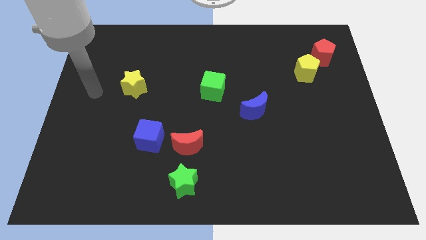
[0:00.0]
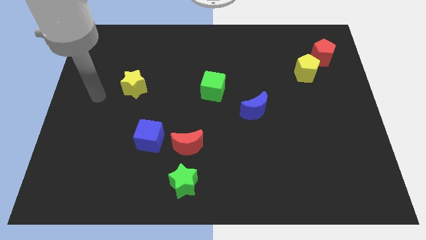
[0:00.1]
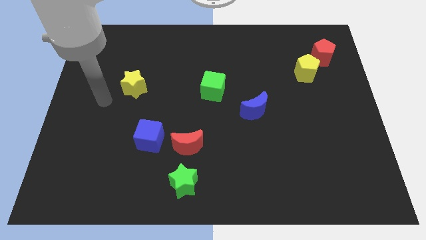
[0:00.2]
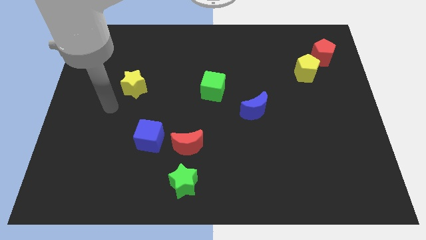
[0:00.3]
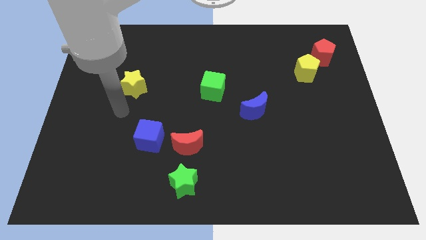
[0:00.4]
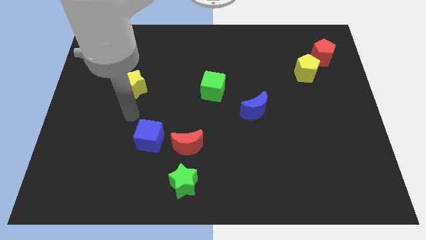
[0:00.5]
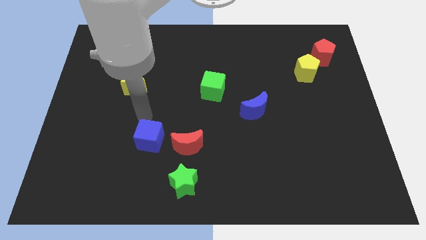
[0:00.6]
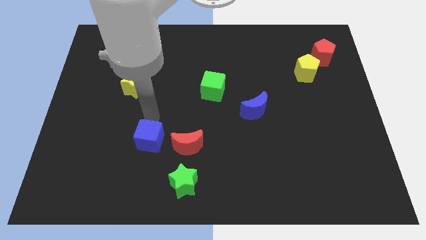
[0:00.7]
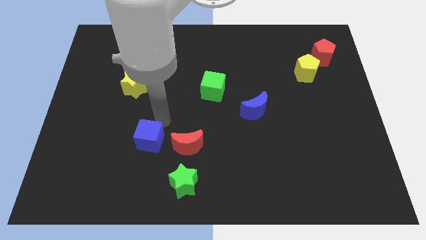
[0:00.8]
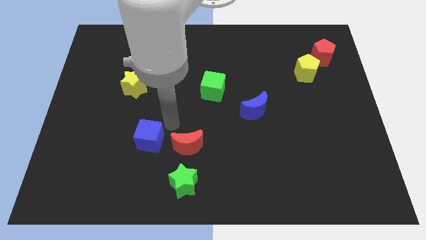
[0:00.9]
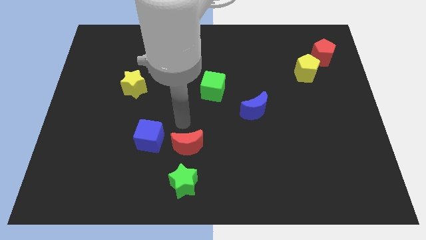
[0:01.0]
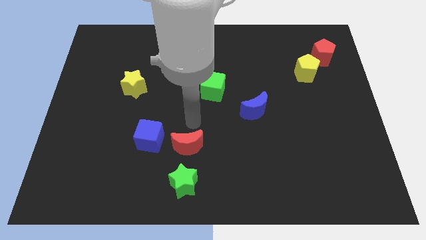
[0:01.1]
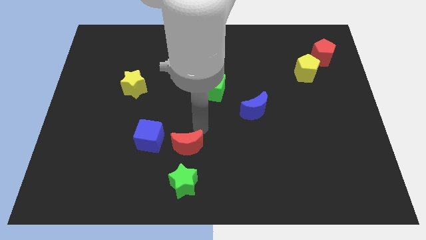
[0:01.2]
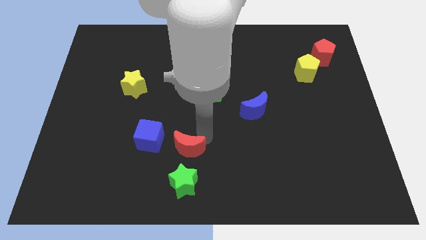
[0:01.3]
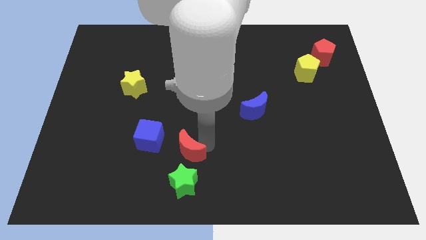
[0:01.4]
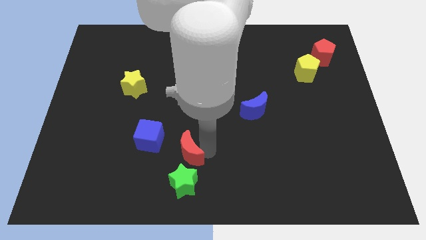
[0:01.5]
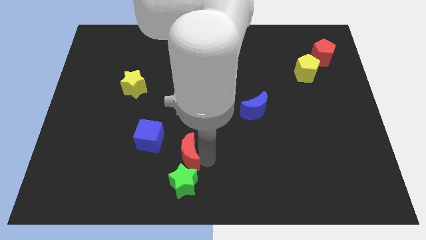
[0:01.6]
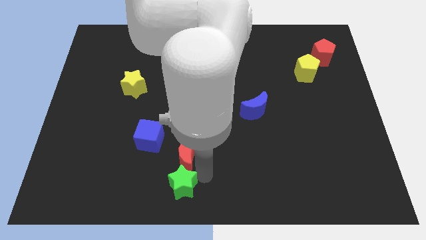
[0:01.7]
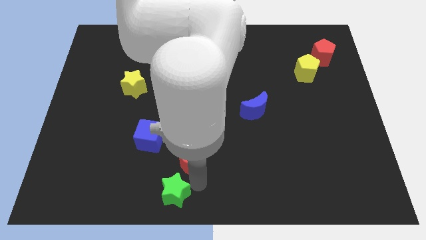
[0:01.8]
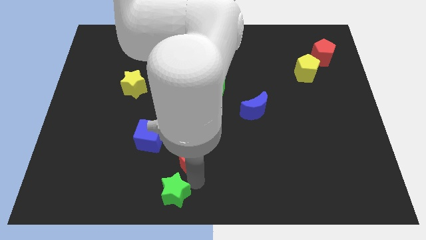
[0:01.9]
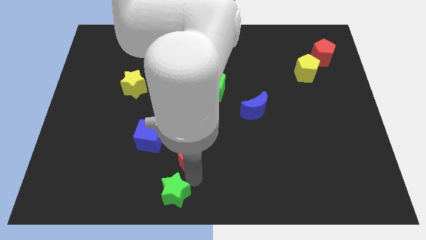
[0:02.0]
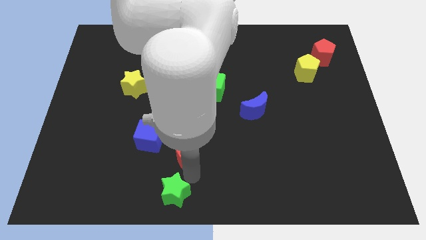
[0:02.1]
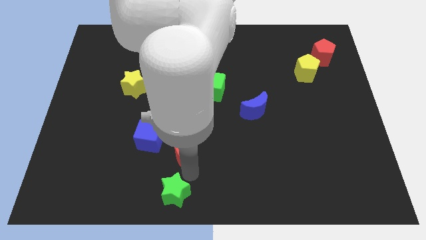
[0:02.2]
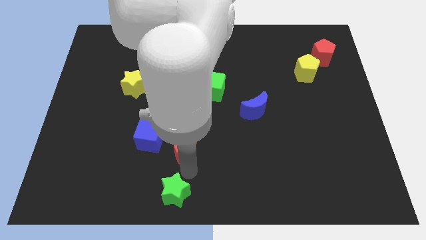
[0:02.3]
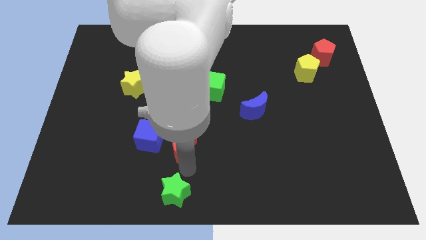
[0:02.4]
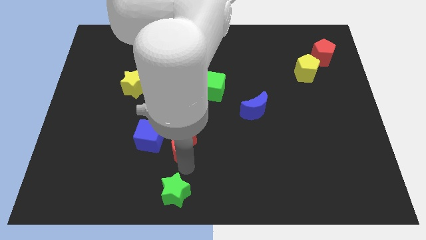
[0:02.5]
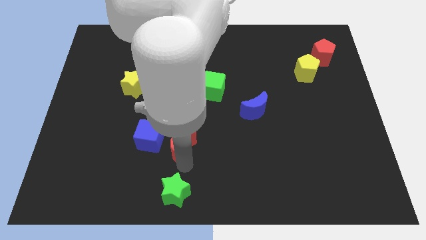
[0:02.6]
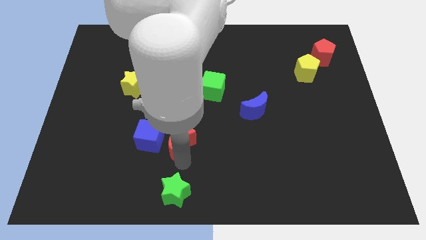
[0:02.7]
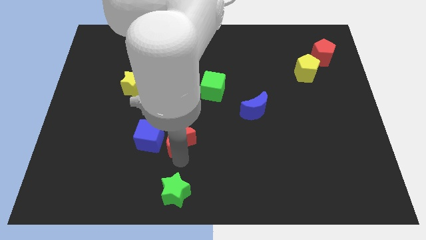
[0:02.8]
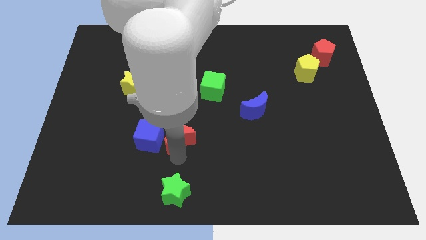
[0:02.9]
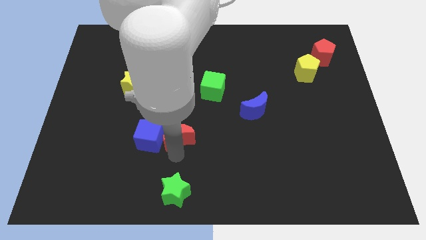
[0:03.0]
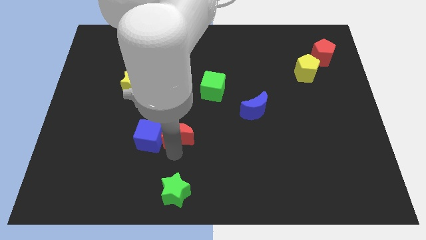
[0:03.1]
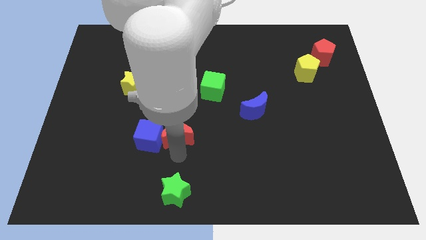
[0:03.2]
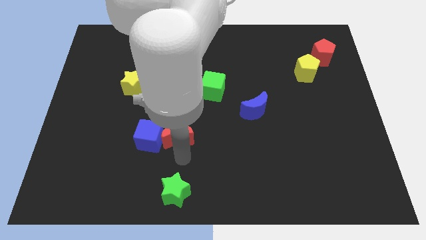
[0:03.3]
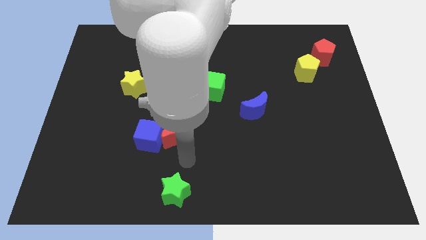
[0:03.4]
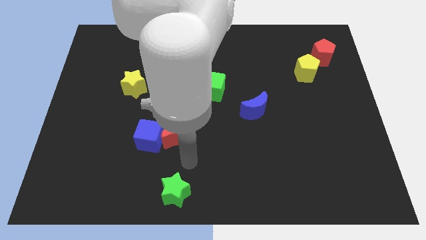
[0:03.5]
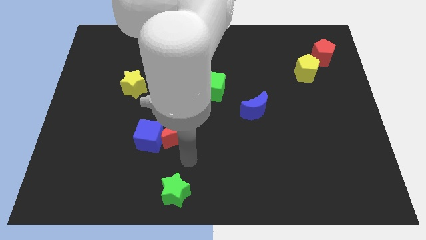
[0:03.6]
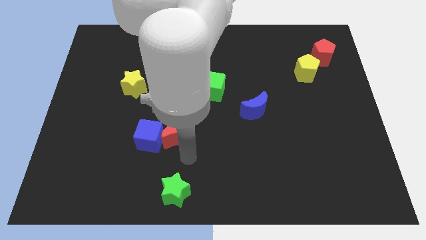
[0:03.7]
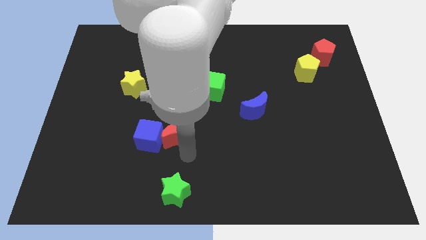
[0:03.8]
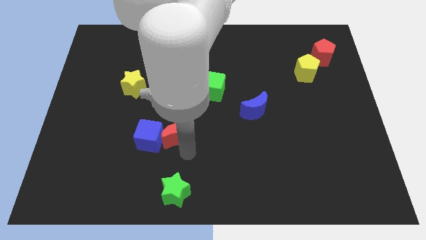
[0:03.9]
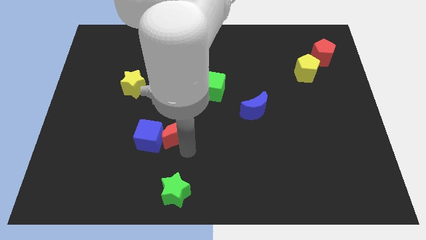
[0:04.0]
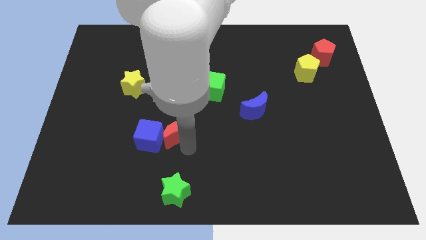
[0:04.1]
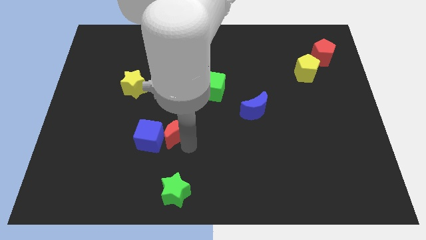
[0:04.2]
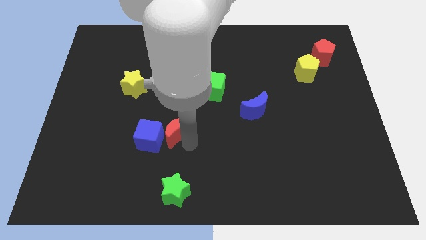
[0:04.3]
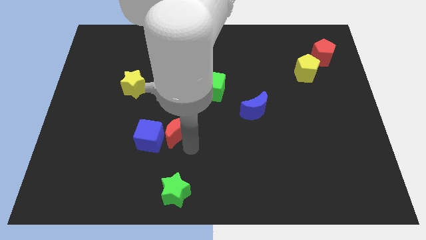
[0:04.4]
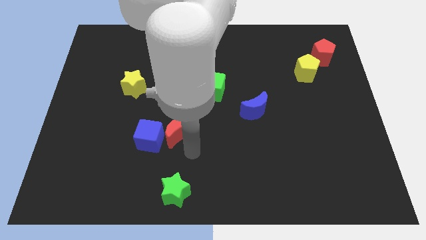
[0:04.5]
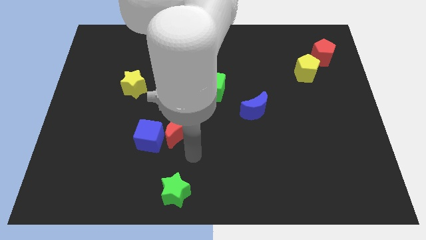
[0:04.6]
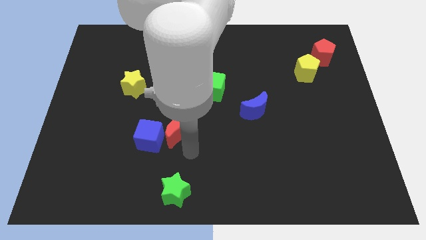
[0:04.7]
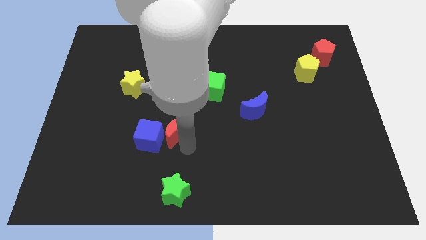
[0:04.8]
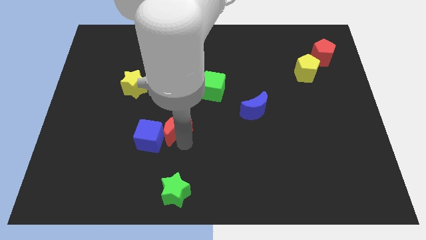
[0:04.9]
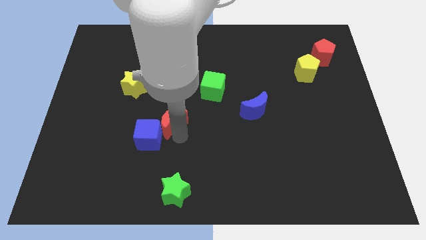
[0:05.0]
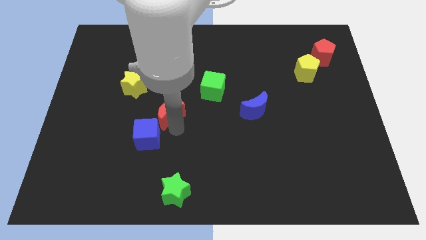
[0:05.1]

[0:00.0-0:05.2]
put the red moon above the blue cube

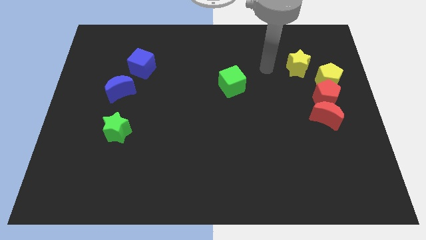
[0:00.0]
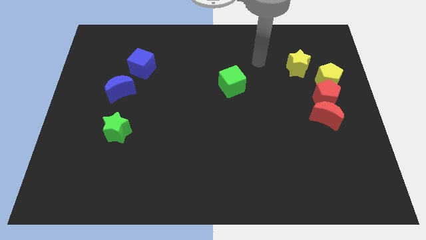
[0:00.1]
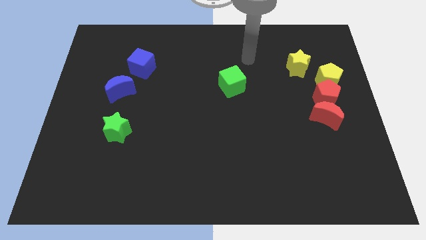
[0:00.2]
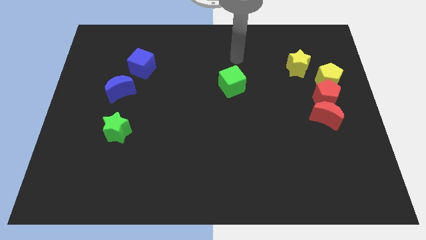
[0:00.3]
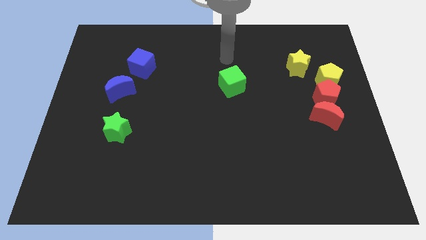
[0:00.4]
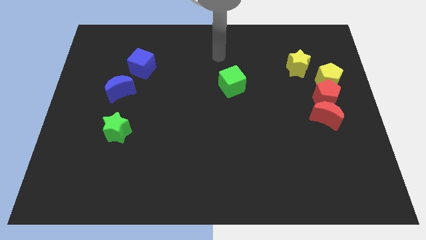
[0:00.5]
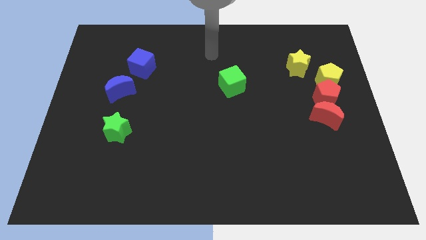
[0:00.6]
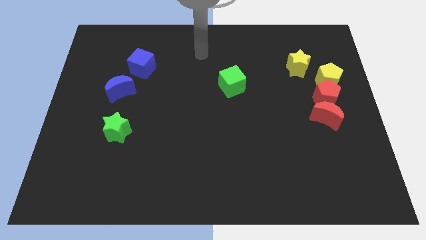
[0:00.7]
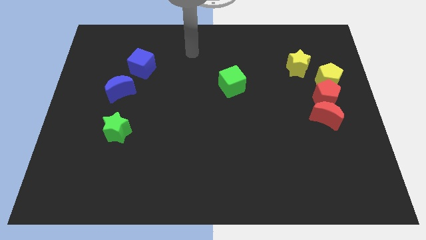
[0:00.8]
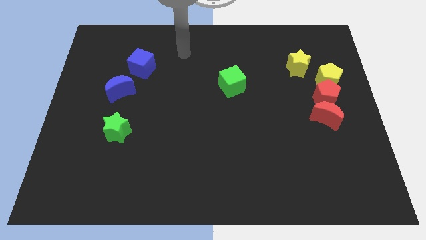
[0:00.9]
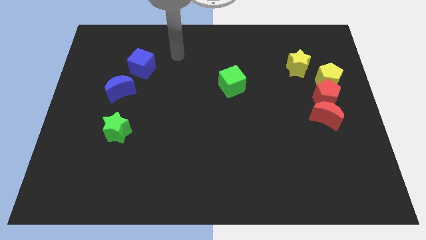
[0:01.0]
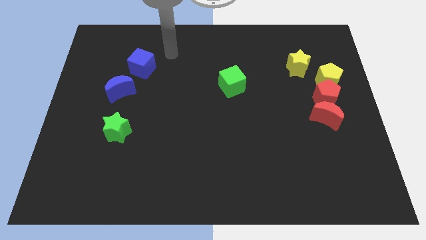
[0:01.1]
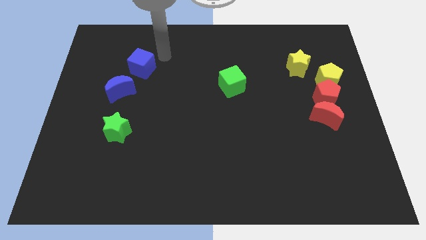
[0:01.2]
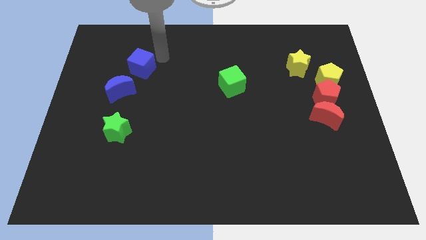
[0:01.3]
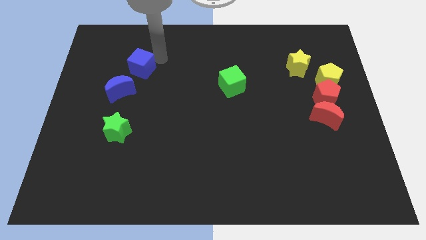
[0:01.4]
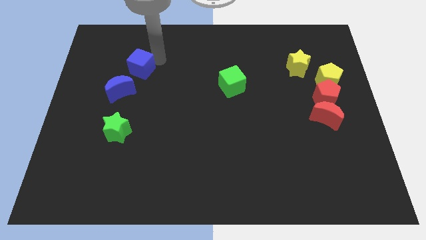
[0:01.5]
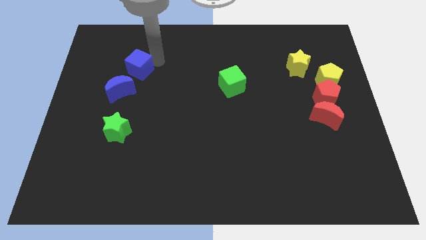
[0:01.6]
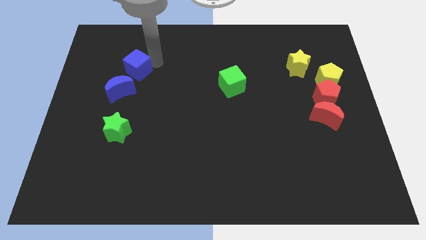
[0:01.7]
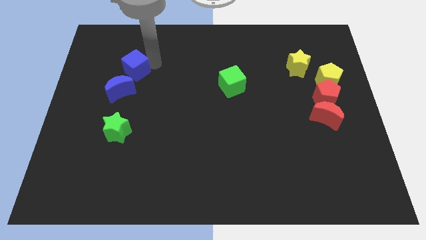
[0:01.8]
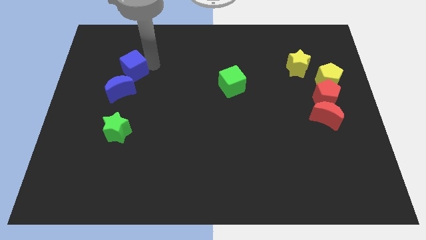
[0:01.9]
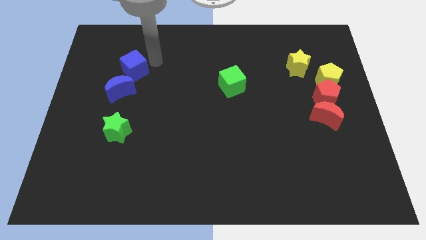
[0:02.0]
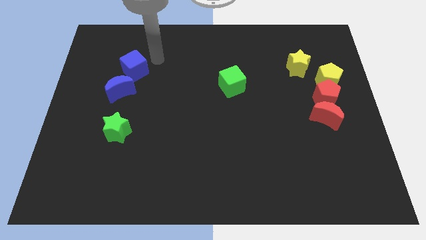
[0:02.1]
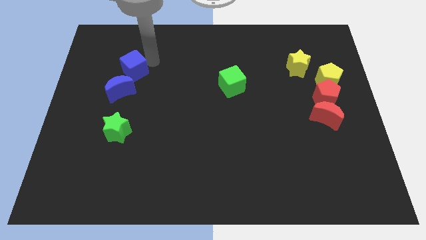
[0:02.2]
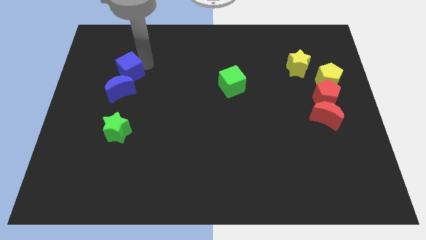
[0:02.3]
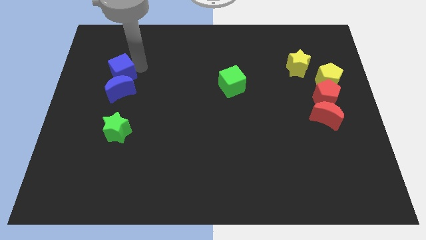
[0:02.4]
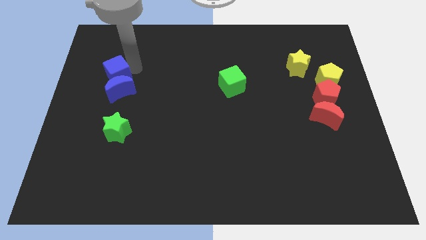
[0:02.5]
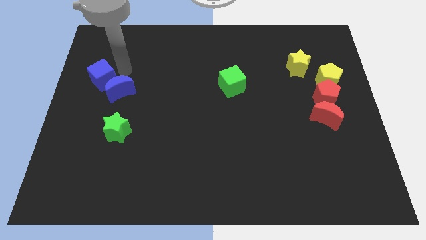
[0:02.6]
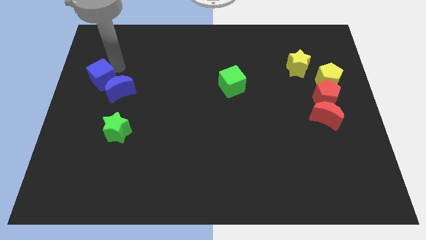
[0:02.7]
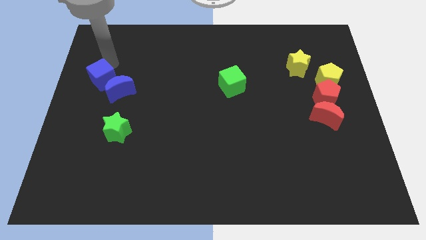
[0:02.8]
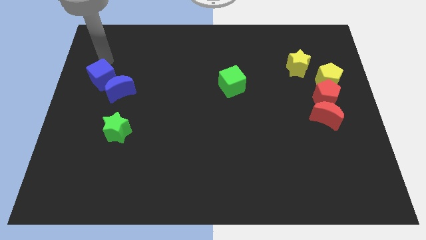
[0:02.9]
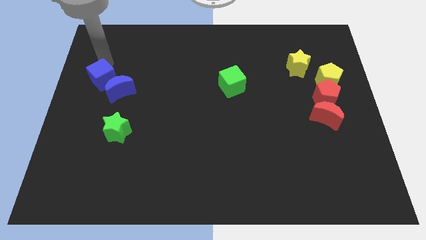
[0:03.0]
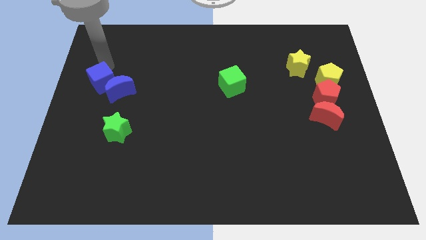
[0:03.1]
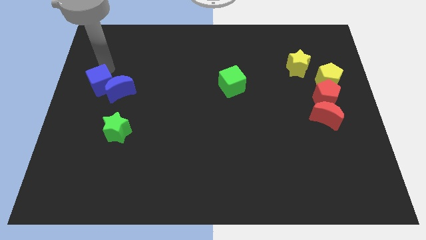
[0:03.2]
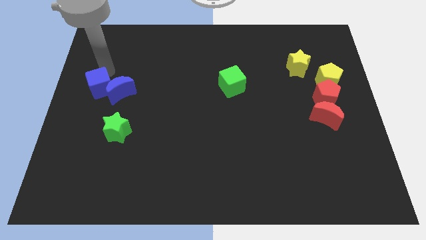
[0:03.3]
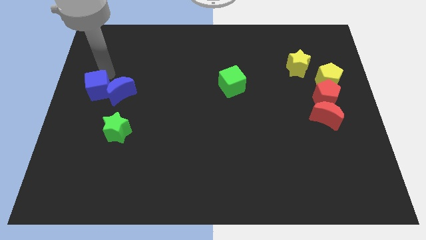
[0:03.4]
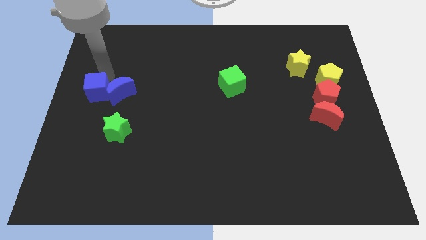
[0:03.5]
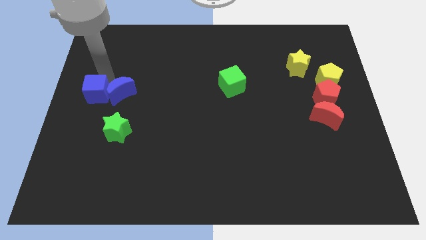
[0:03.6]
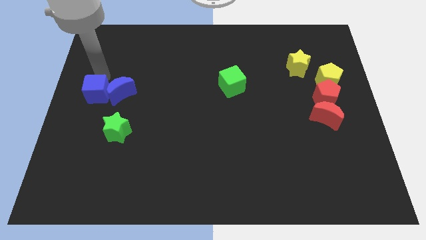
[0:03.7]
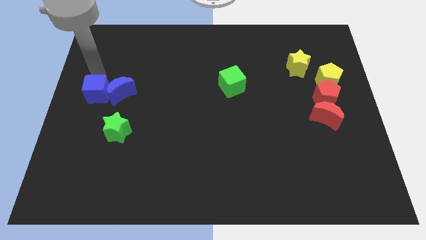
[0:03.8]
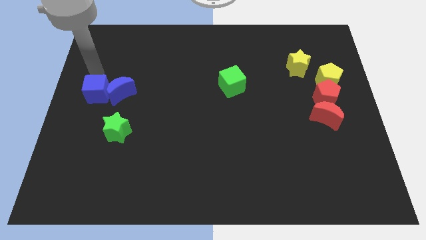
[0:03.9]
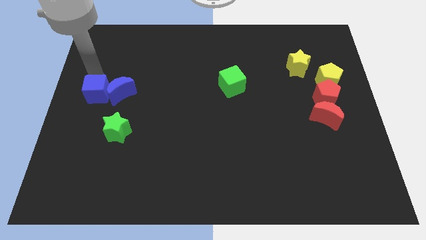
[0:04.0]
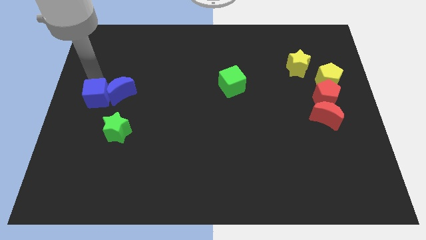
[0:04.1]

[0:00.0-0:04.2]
slide the blue cube to the top left of the green star
